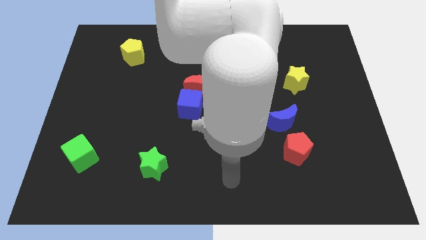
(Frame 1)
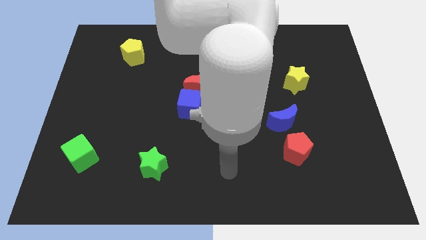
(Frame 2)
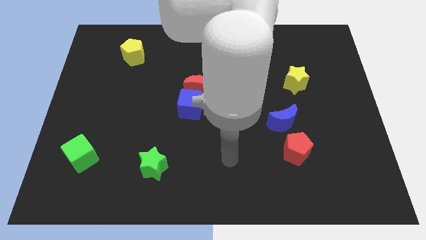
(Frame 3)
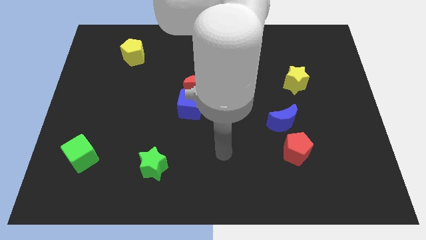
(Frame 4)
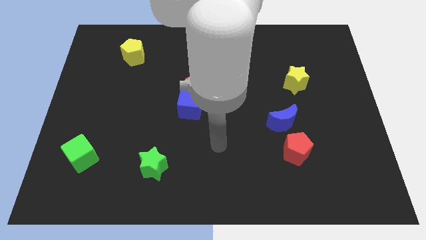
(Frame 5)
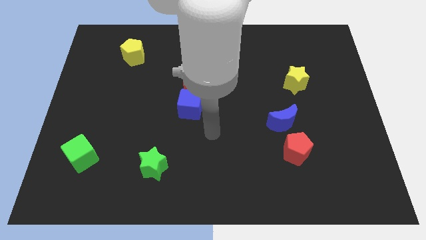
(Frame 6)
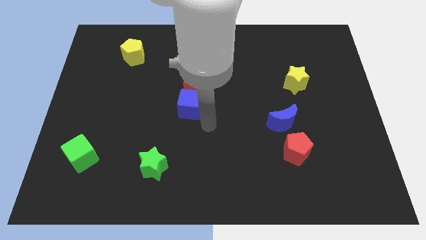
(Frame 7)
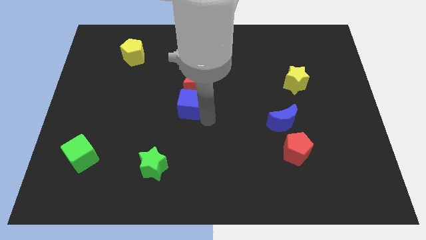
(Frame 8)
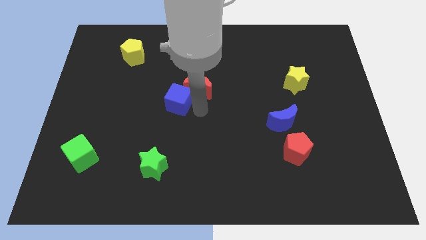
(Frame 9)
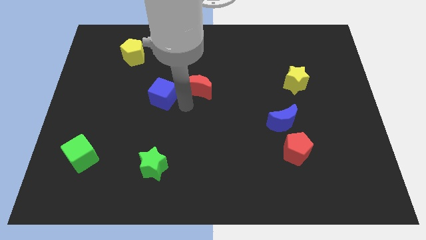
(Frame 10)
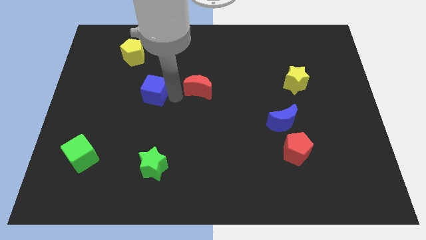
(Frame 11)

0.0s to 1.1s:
separate the red moon from the blue cube

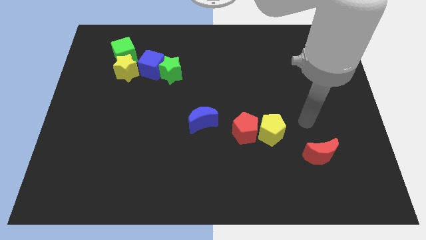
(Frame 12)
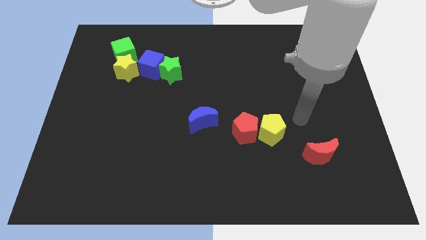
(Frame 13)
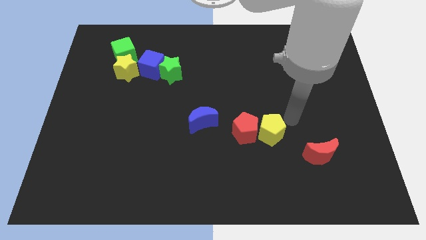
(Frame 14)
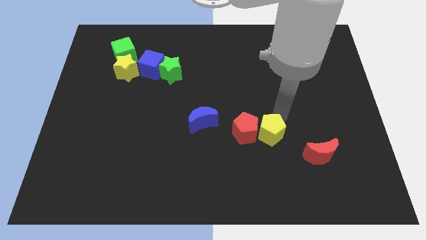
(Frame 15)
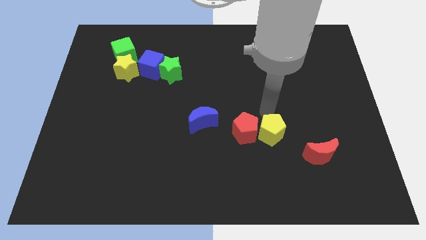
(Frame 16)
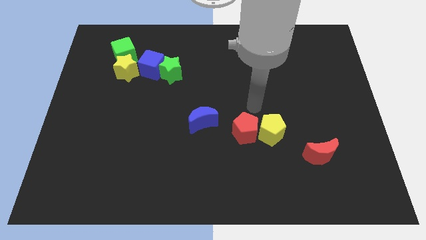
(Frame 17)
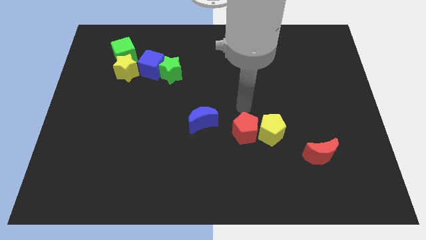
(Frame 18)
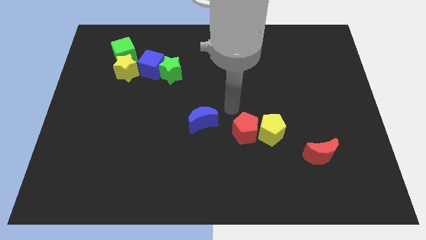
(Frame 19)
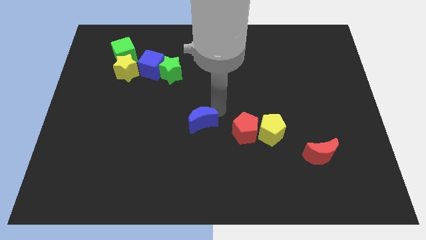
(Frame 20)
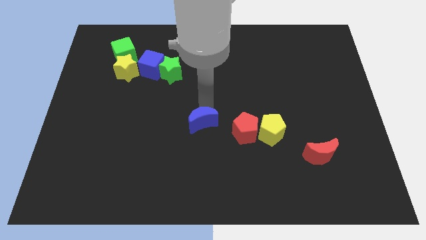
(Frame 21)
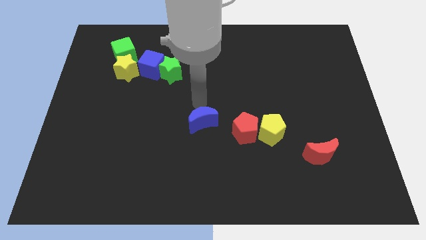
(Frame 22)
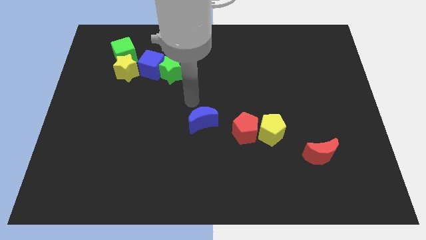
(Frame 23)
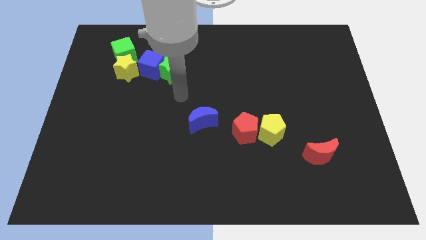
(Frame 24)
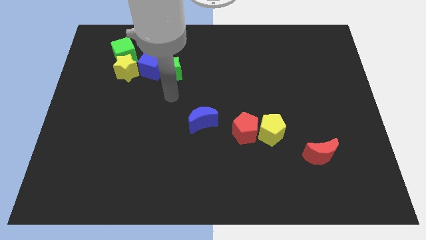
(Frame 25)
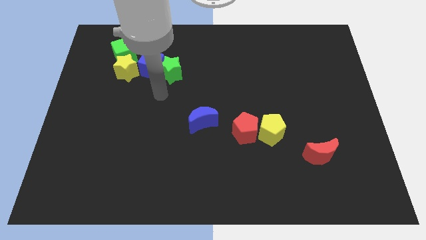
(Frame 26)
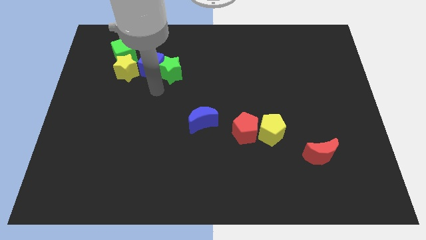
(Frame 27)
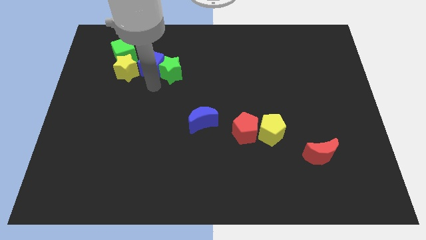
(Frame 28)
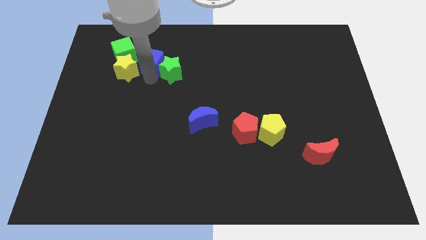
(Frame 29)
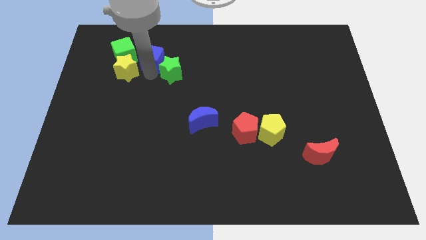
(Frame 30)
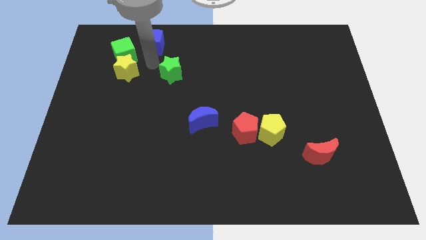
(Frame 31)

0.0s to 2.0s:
move the green star away from the blue cube

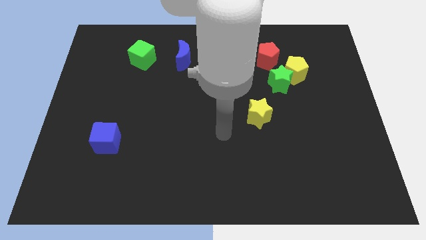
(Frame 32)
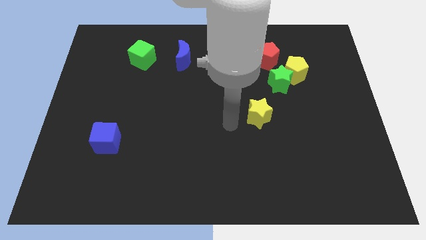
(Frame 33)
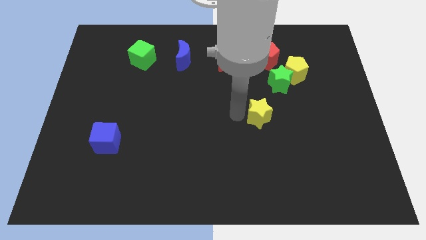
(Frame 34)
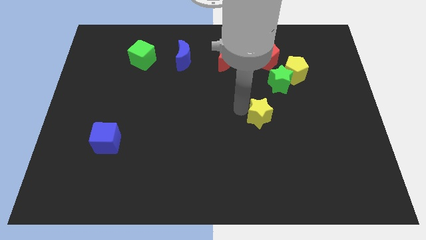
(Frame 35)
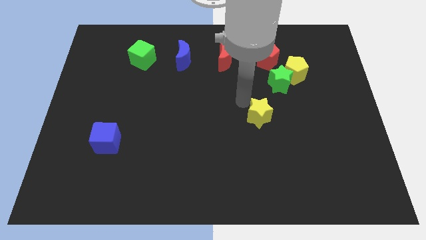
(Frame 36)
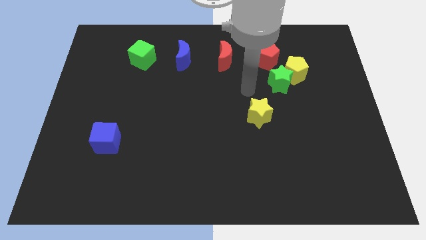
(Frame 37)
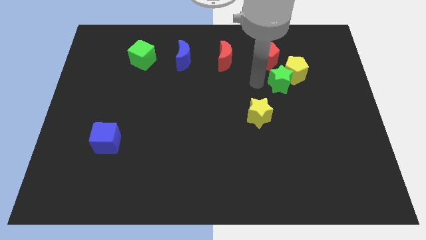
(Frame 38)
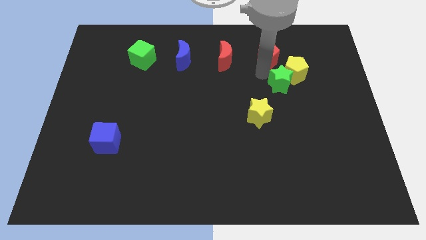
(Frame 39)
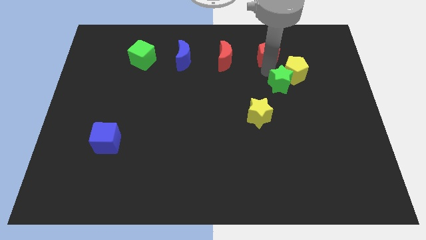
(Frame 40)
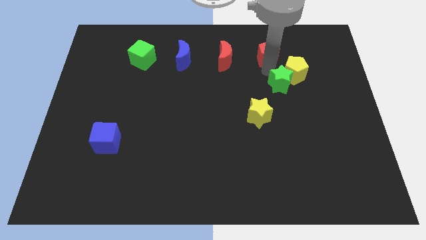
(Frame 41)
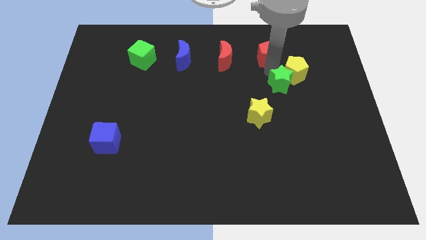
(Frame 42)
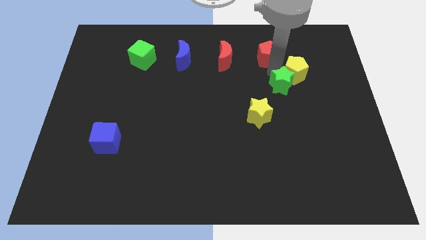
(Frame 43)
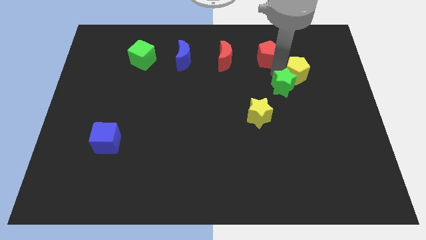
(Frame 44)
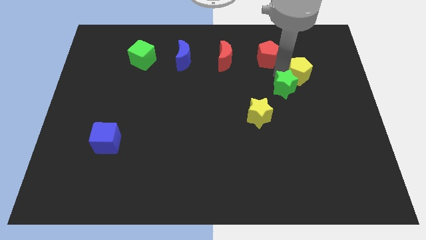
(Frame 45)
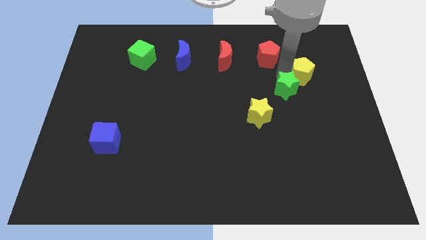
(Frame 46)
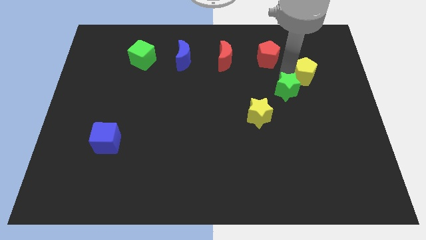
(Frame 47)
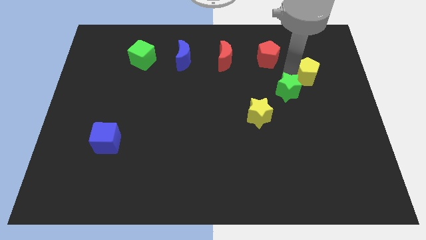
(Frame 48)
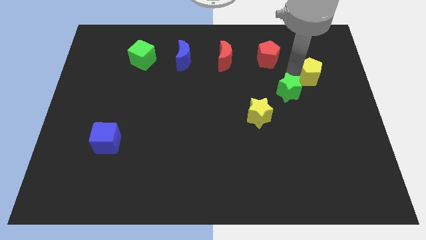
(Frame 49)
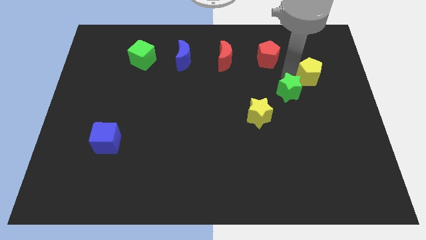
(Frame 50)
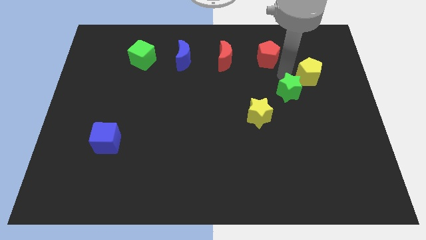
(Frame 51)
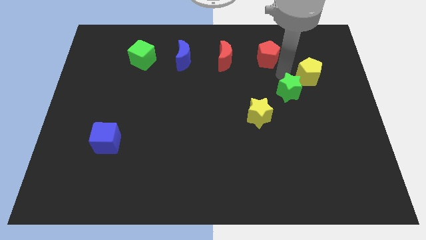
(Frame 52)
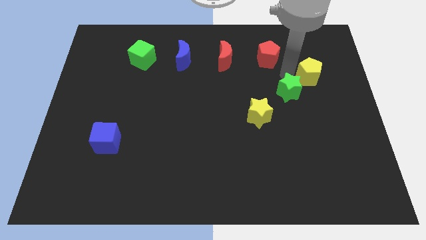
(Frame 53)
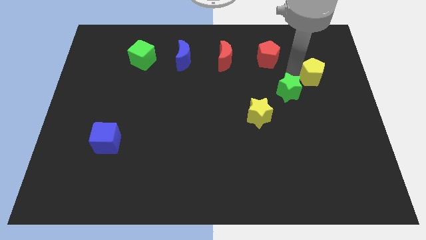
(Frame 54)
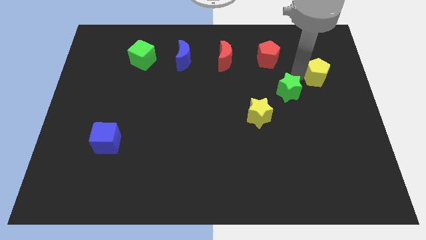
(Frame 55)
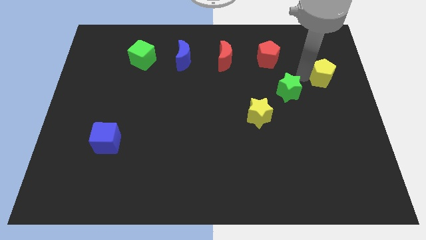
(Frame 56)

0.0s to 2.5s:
pull the yellow pentagon apart from the green star and red pentagon

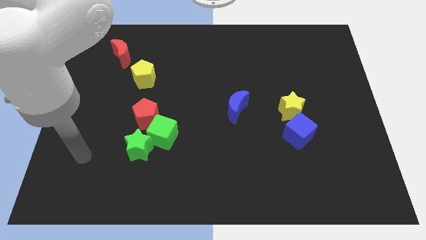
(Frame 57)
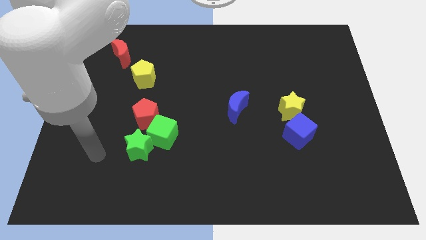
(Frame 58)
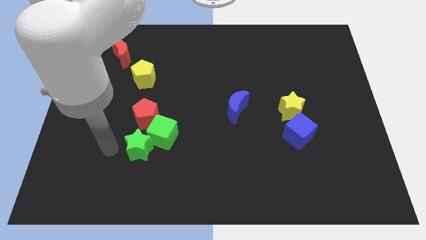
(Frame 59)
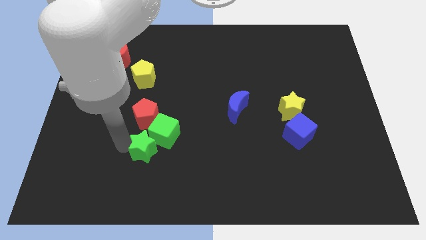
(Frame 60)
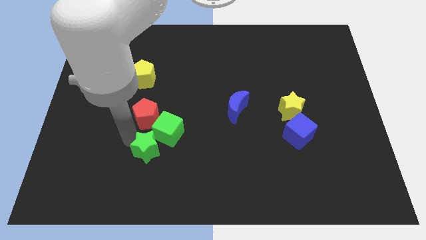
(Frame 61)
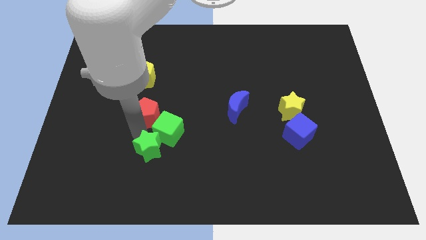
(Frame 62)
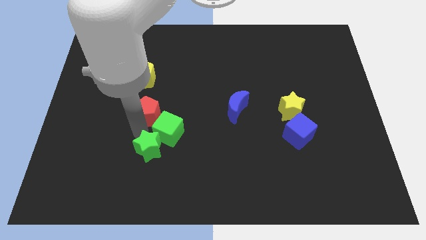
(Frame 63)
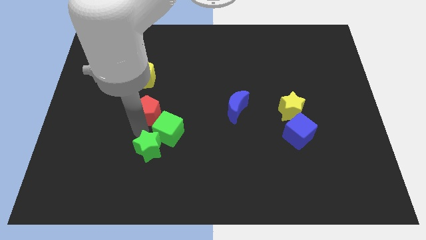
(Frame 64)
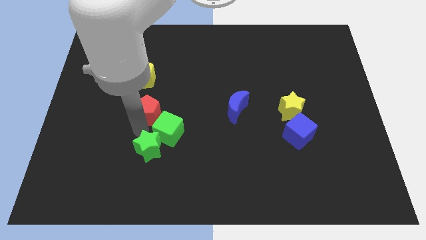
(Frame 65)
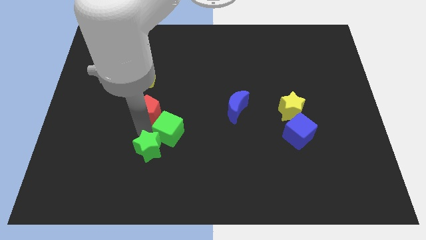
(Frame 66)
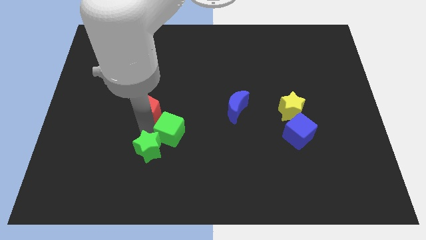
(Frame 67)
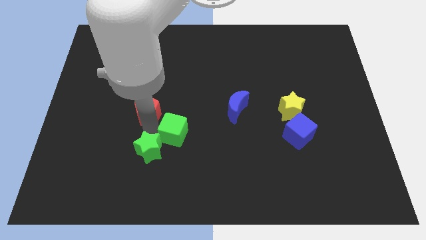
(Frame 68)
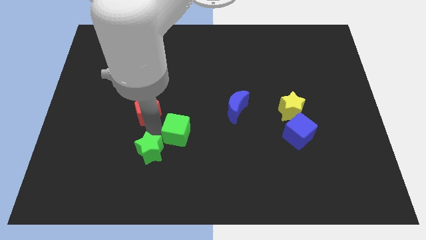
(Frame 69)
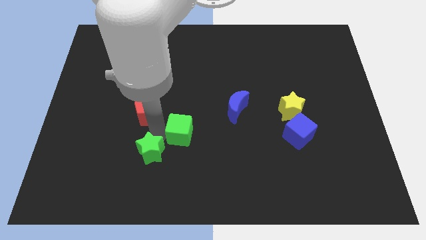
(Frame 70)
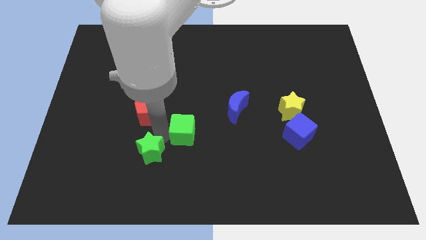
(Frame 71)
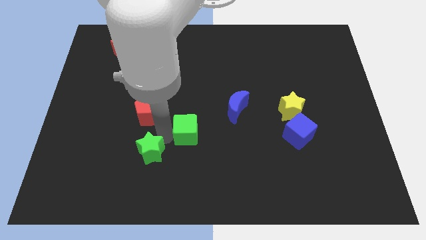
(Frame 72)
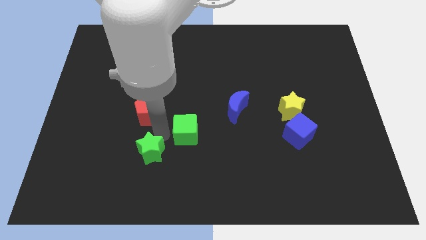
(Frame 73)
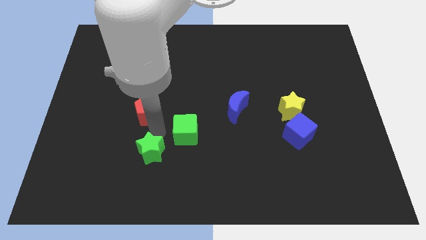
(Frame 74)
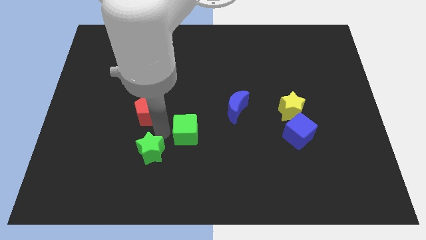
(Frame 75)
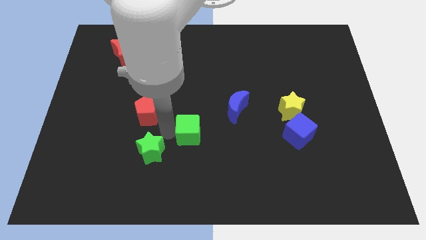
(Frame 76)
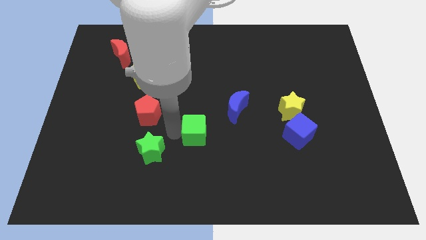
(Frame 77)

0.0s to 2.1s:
separate the green cube from the green star and red pentagon

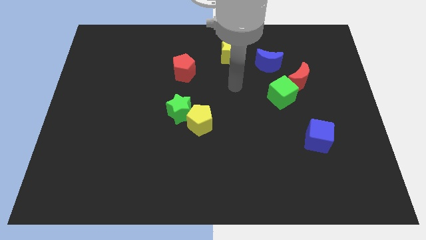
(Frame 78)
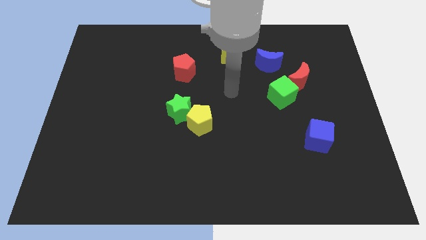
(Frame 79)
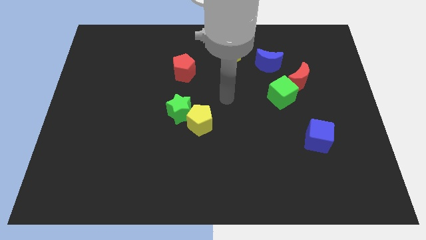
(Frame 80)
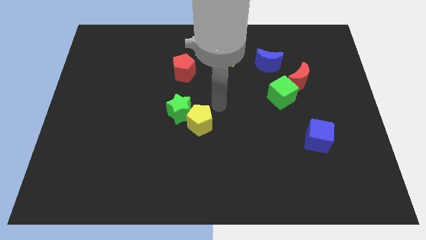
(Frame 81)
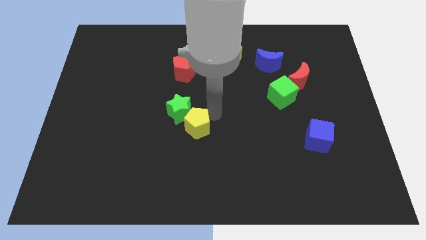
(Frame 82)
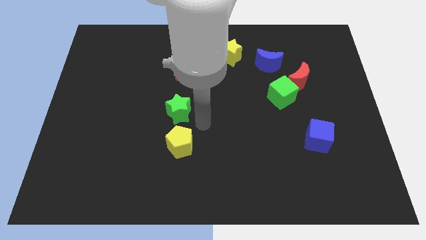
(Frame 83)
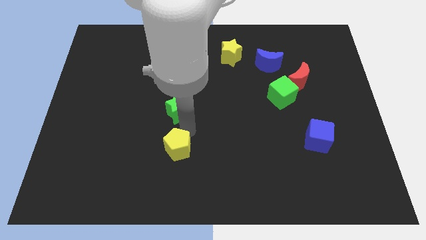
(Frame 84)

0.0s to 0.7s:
pull the green star apart from the yellow pentagon

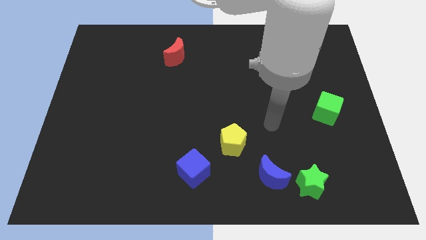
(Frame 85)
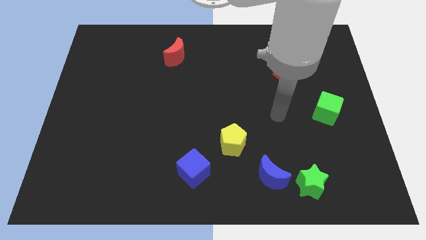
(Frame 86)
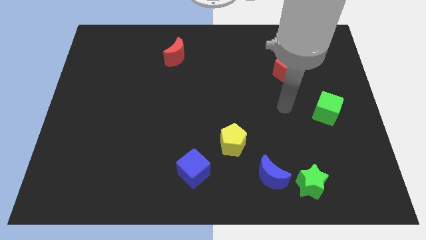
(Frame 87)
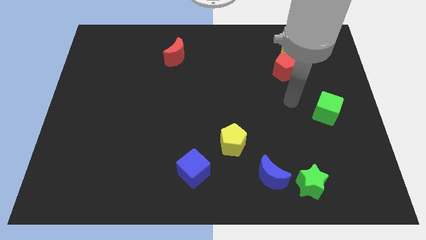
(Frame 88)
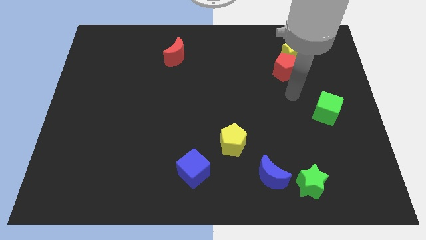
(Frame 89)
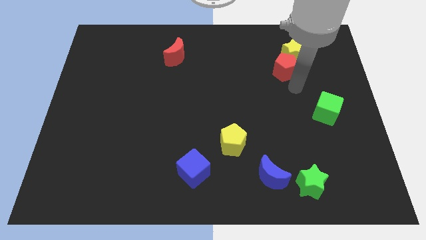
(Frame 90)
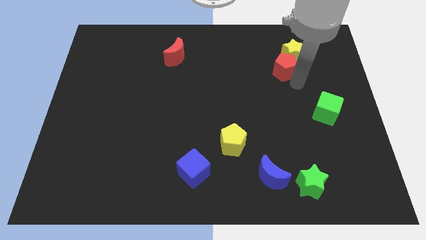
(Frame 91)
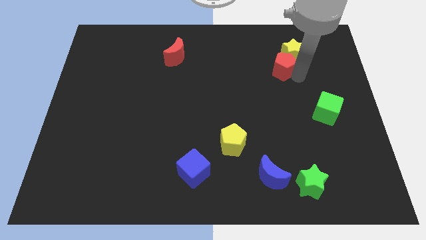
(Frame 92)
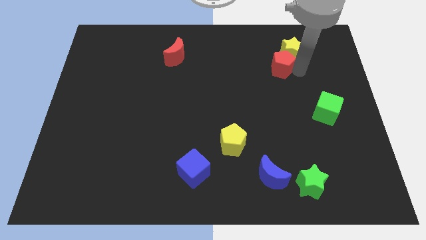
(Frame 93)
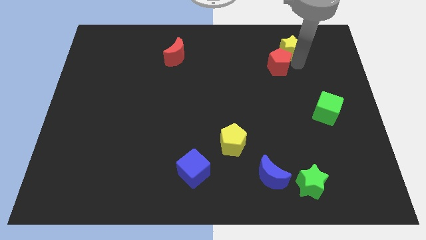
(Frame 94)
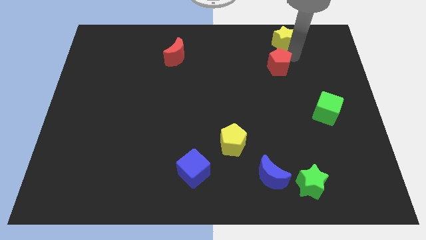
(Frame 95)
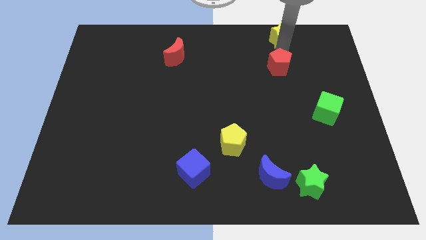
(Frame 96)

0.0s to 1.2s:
pull the red pentagon apart from the yellow star
